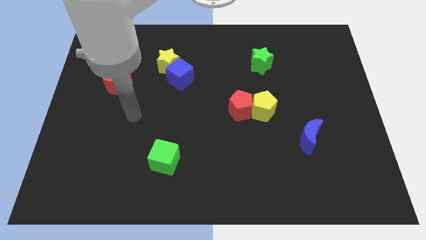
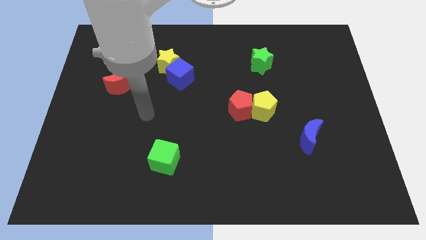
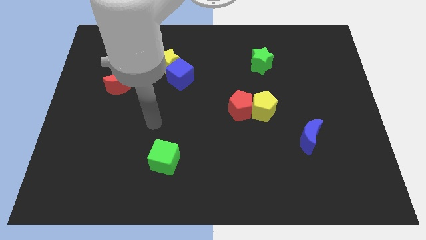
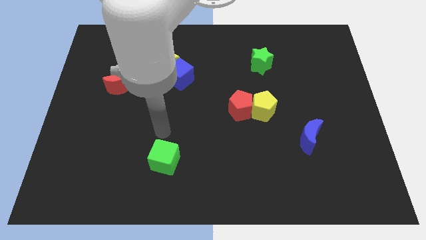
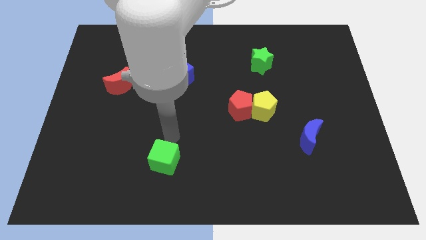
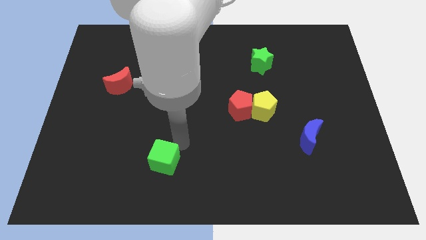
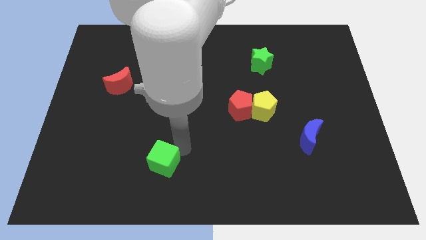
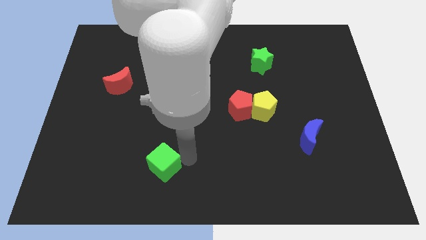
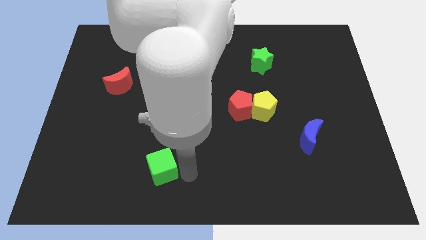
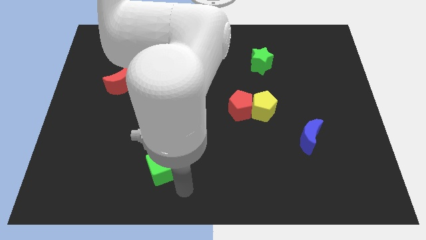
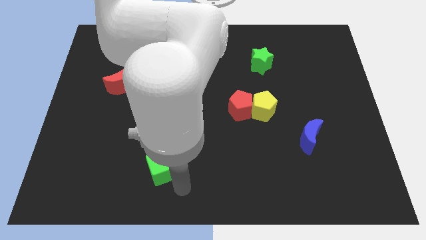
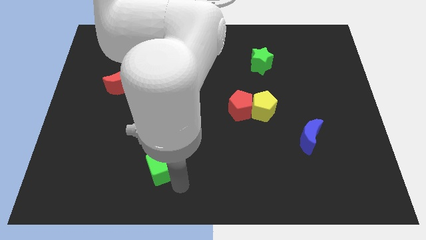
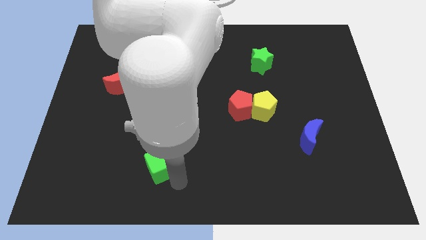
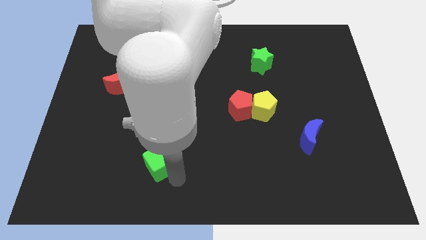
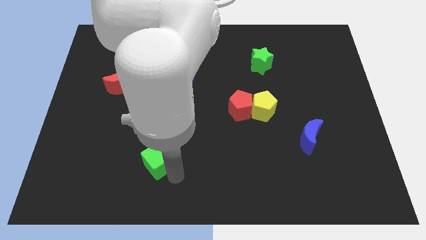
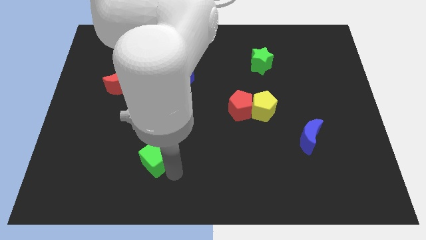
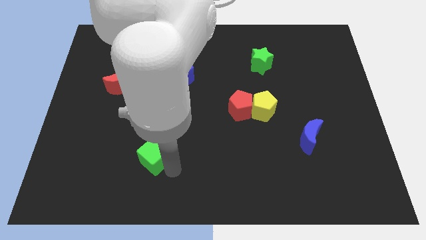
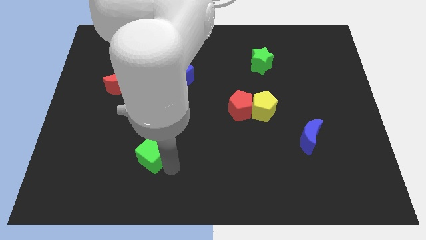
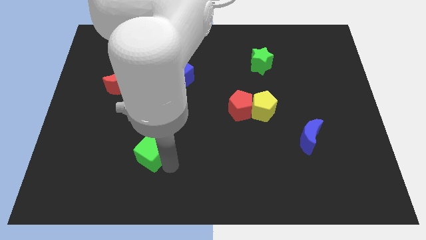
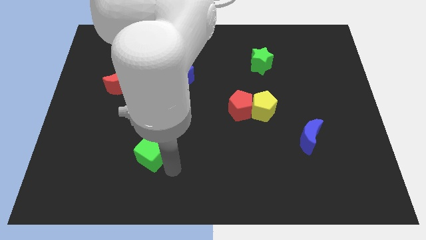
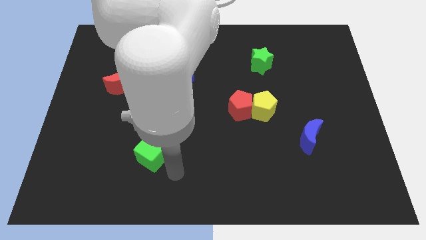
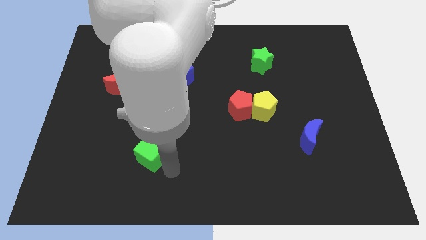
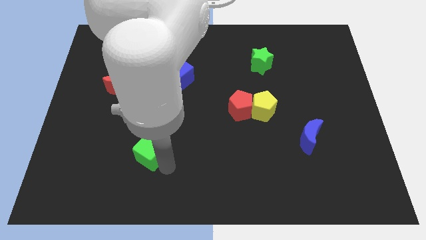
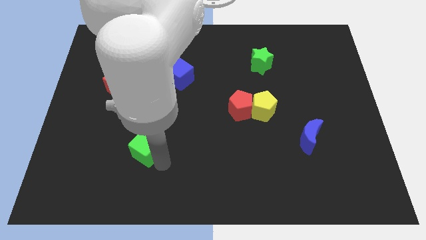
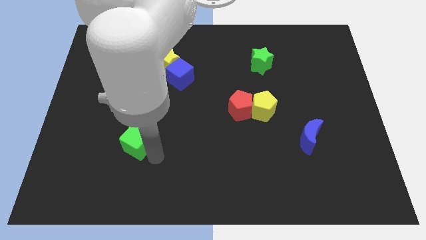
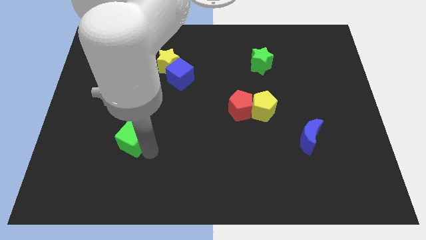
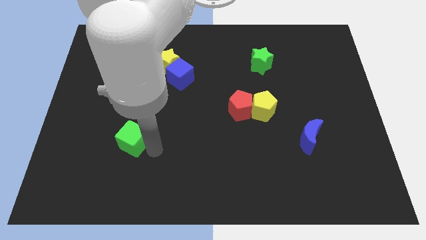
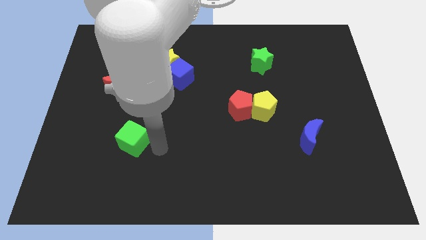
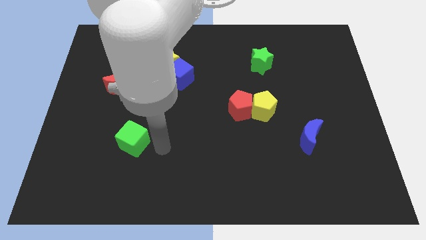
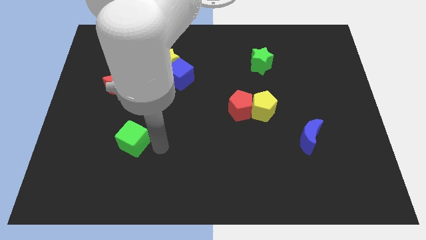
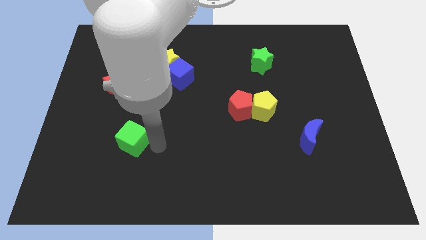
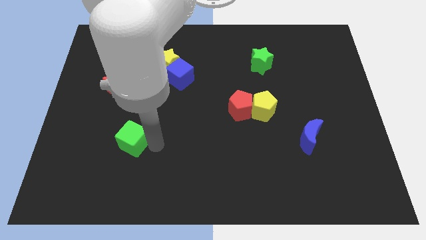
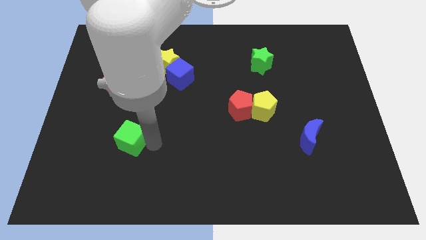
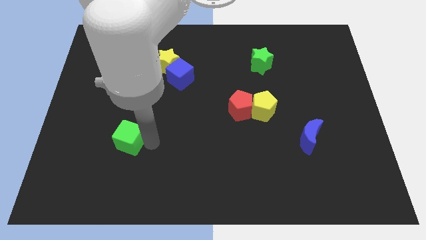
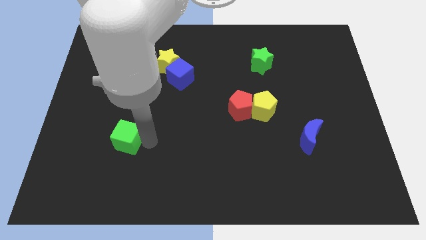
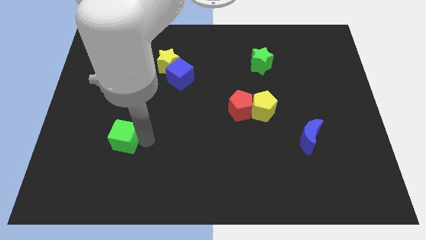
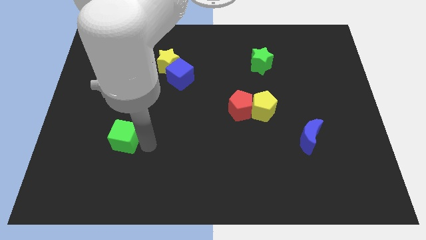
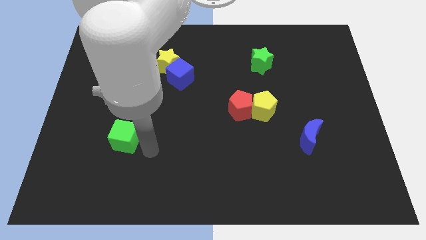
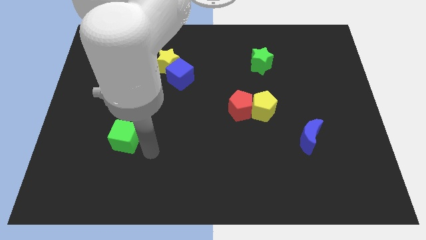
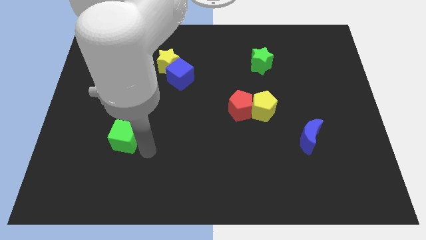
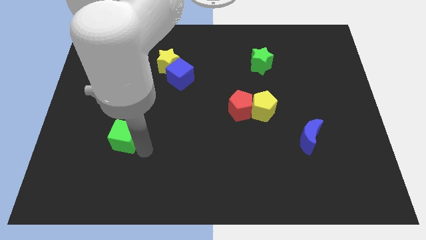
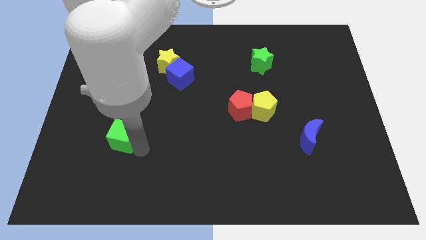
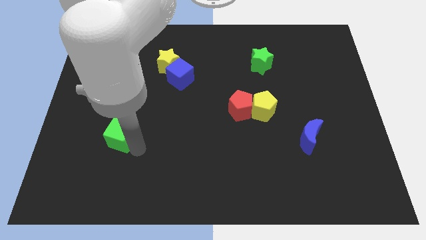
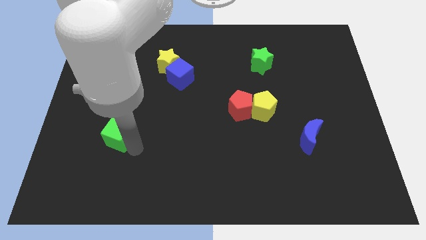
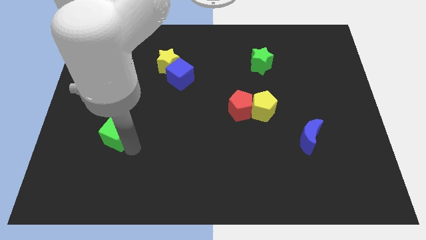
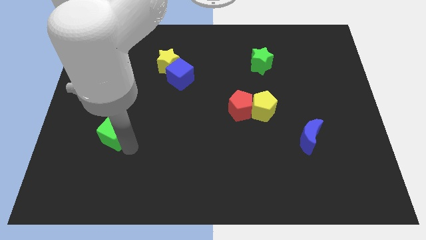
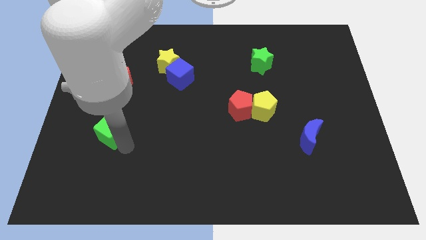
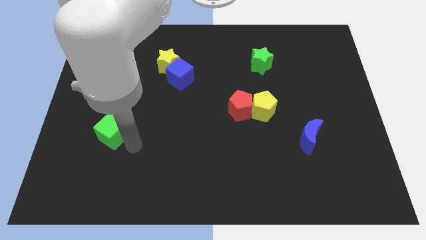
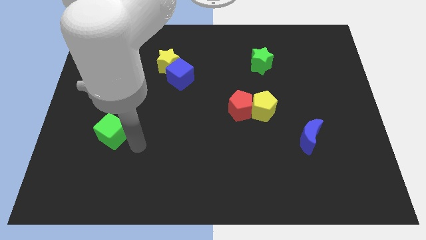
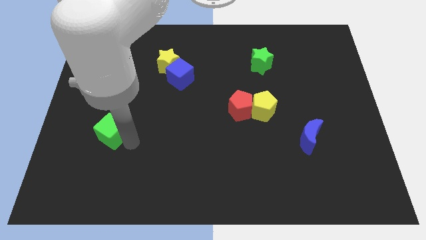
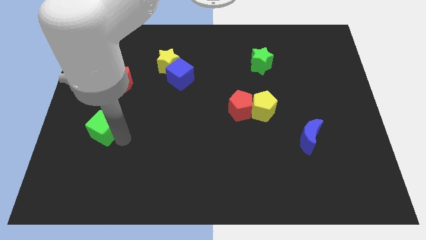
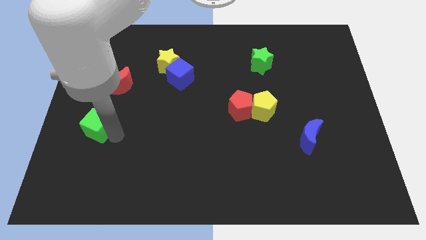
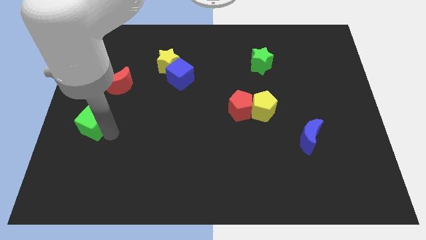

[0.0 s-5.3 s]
put the green cube to the left side

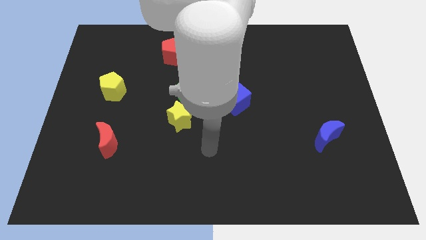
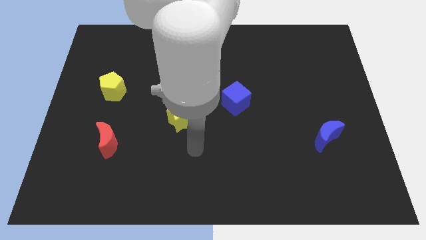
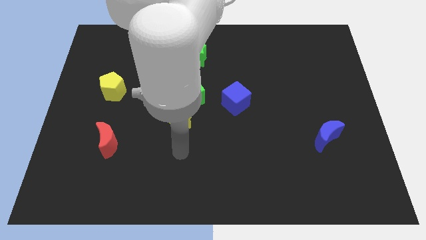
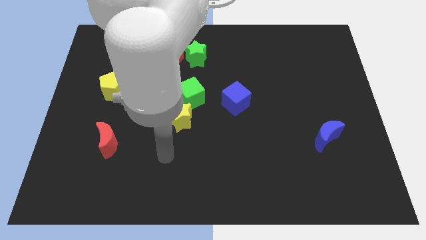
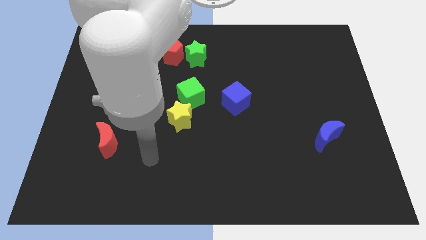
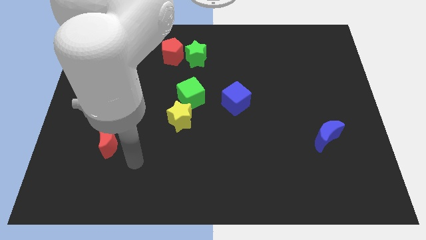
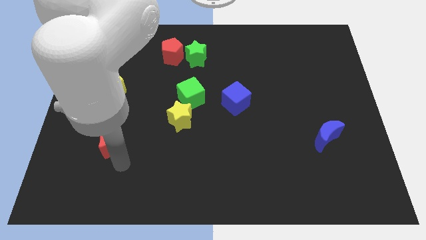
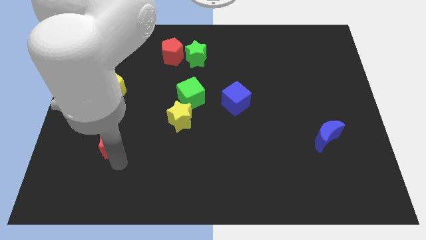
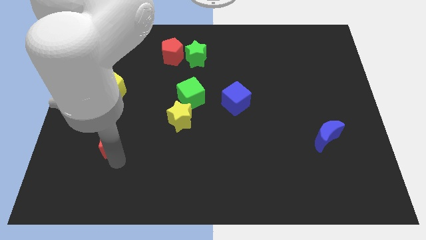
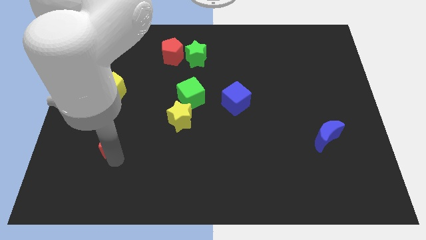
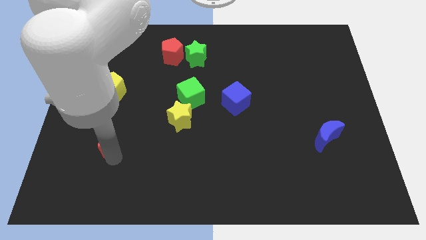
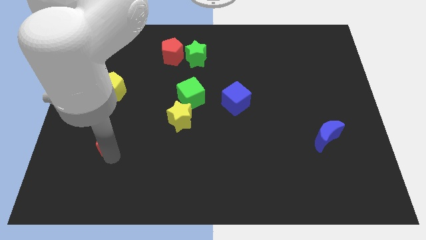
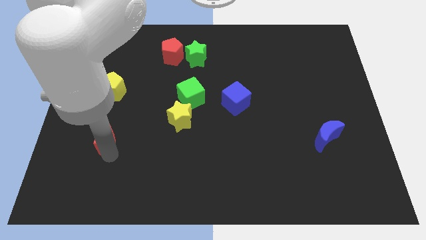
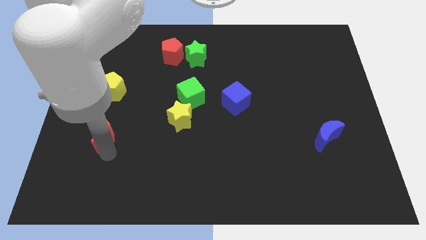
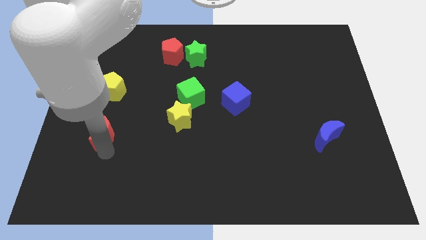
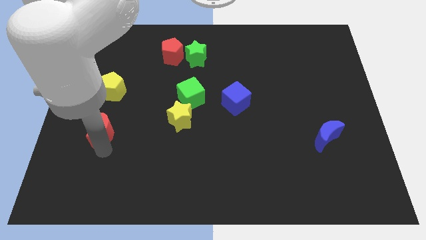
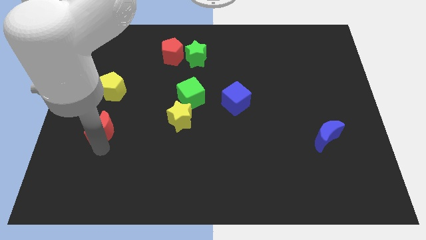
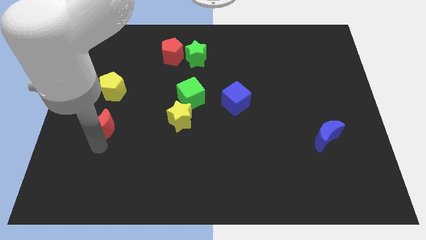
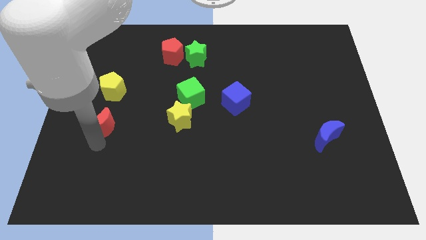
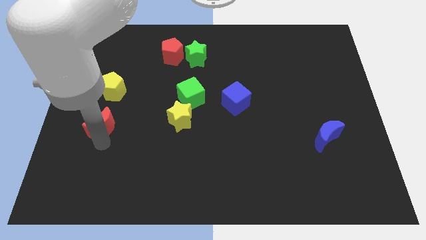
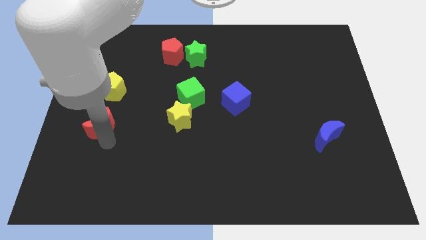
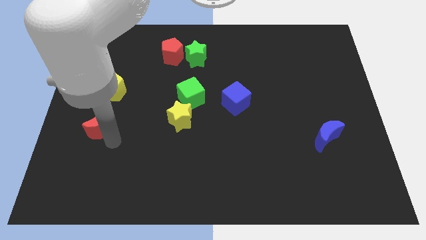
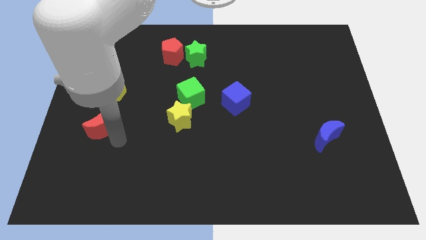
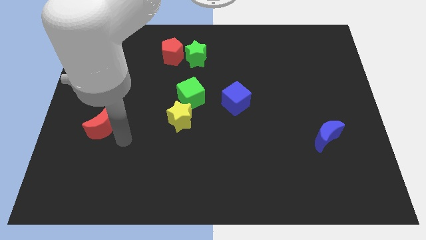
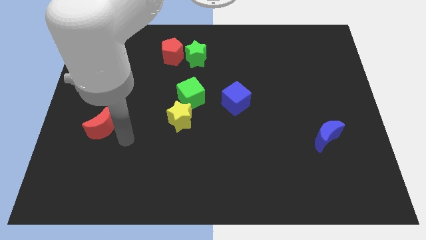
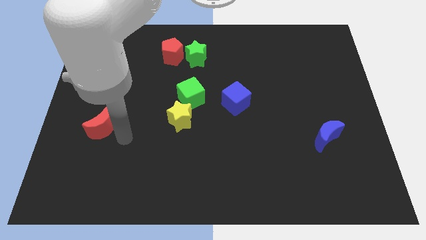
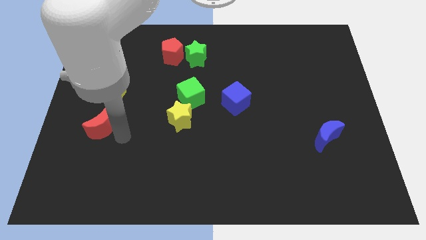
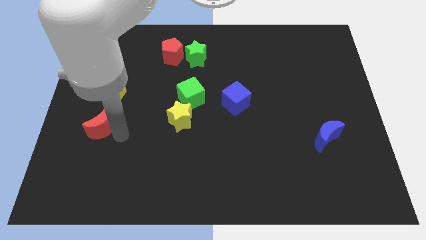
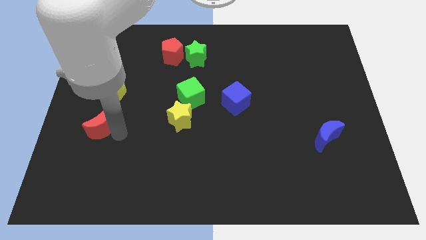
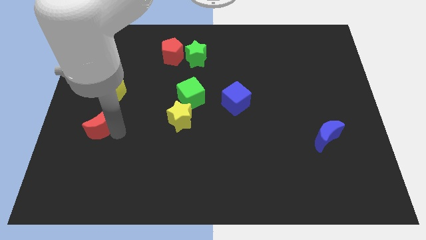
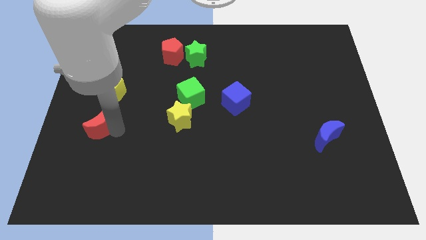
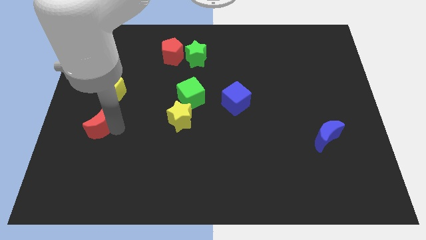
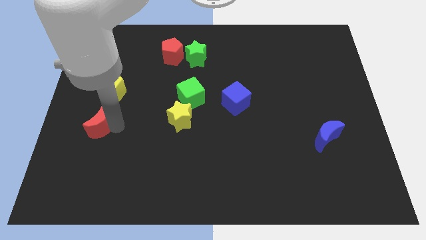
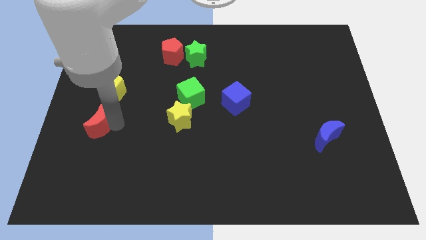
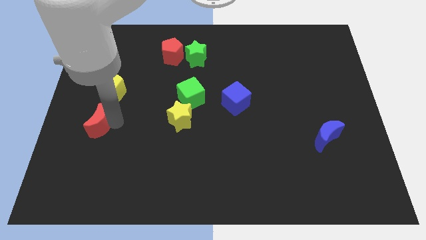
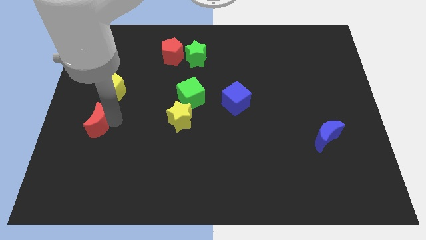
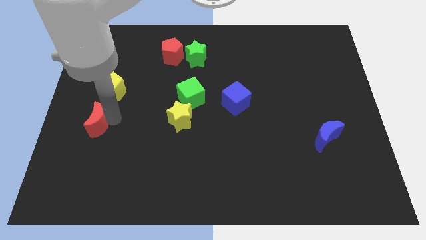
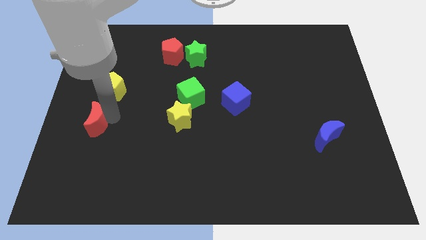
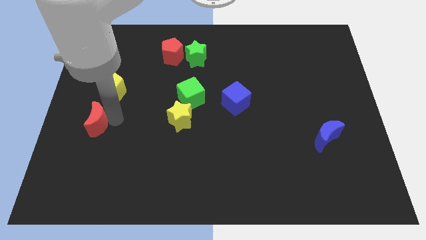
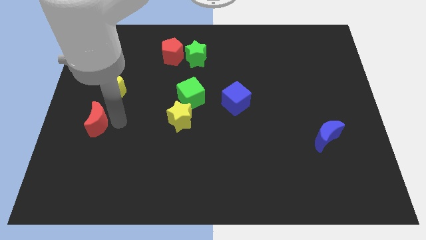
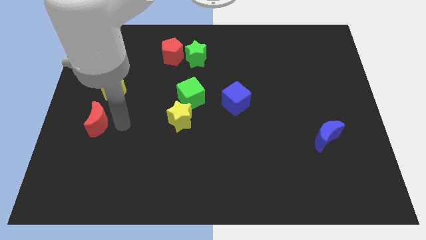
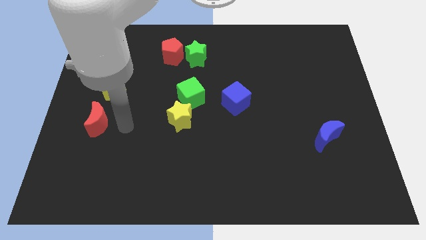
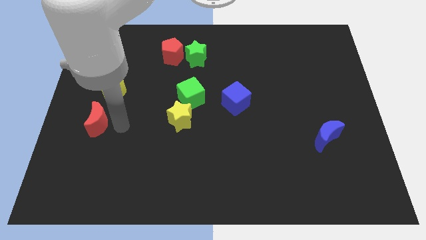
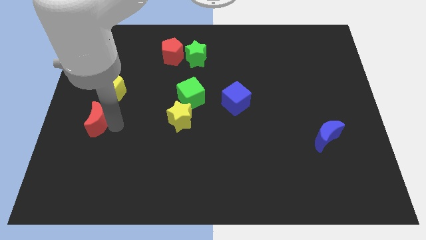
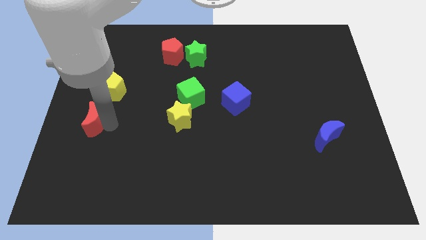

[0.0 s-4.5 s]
slide the red moon to the left side of the board
